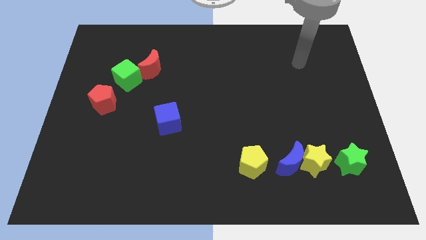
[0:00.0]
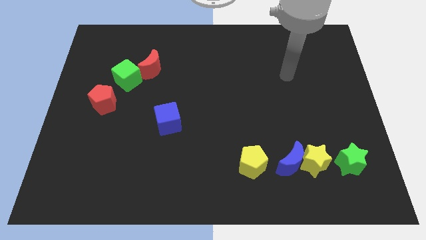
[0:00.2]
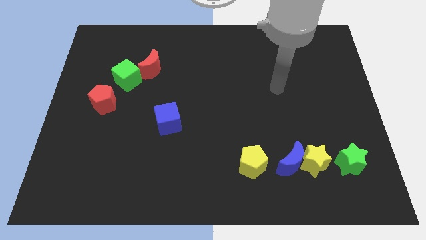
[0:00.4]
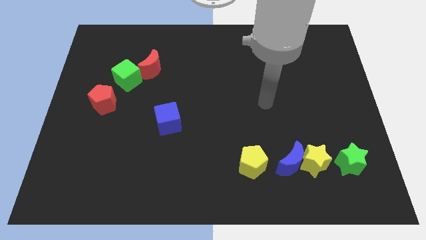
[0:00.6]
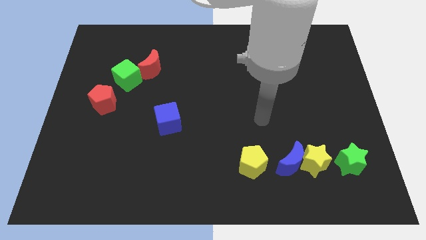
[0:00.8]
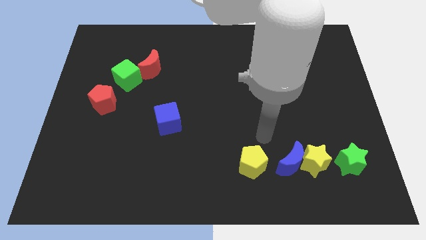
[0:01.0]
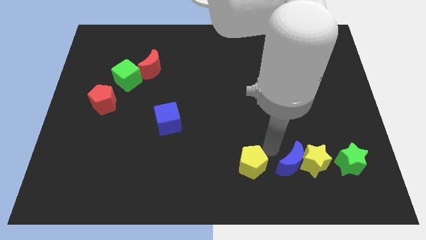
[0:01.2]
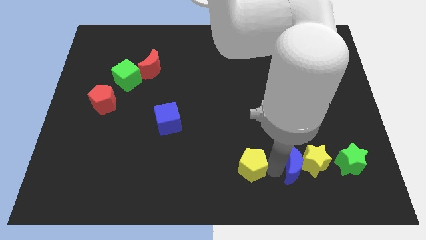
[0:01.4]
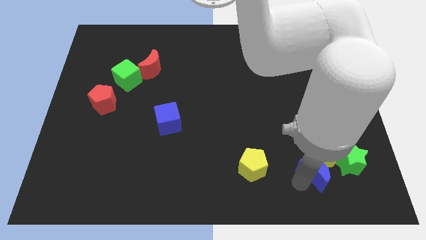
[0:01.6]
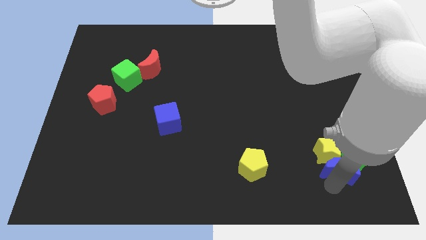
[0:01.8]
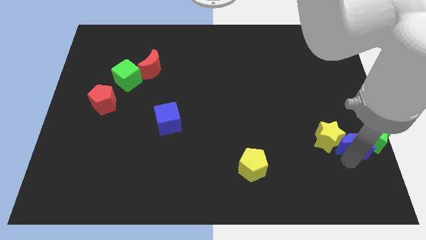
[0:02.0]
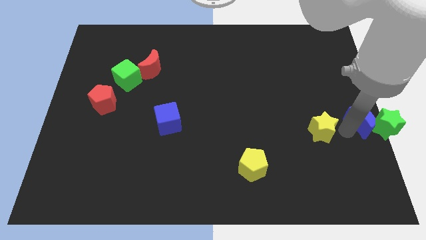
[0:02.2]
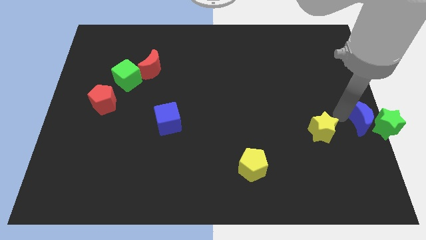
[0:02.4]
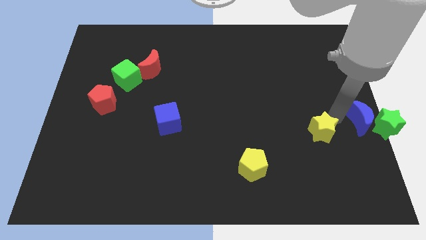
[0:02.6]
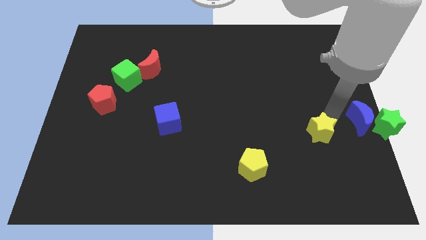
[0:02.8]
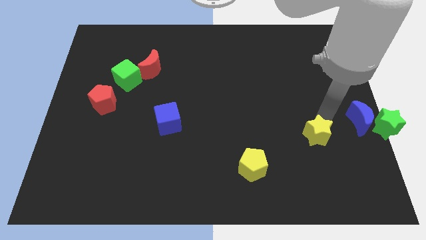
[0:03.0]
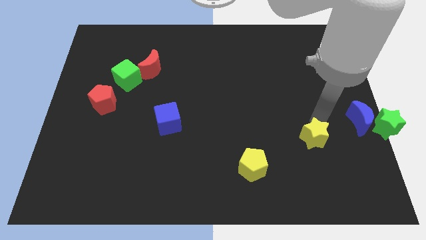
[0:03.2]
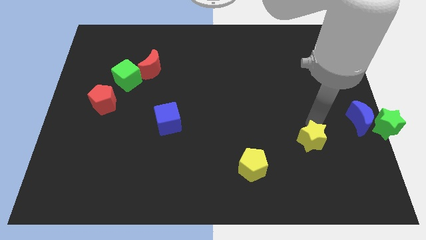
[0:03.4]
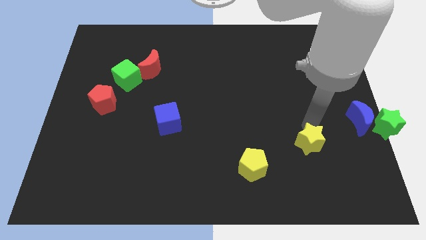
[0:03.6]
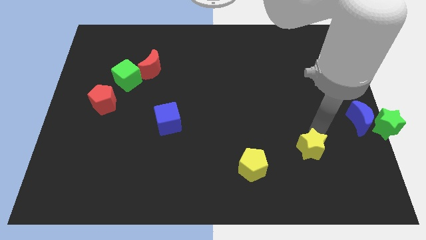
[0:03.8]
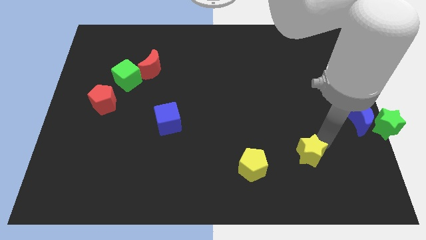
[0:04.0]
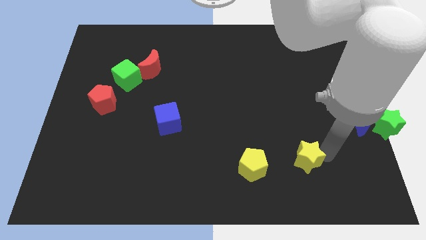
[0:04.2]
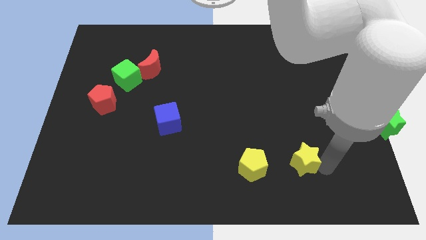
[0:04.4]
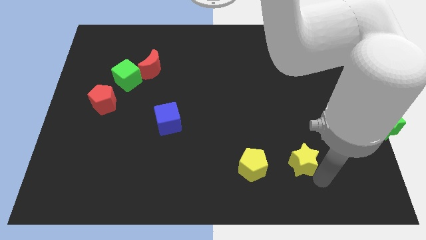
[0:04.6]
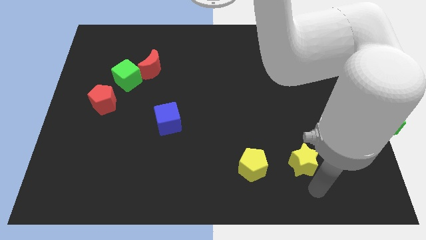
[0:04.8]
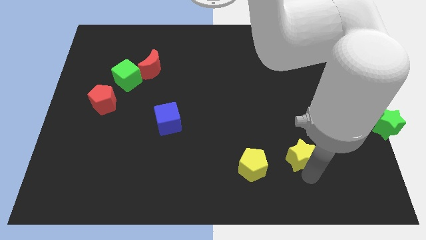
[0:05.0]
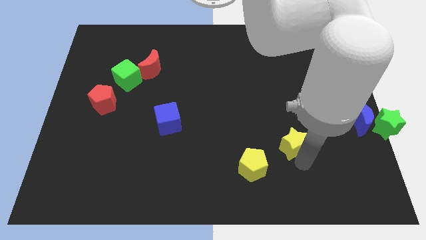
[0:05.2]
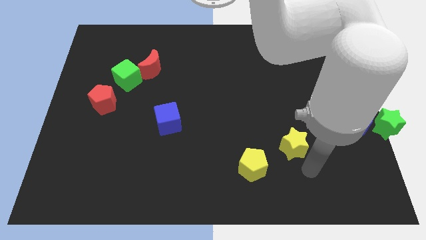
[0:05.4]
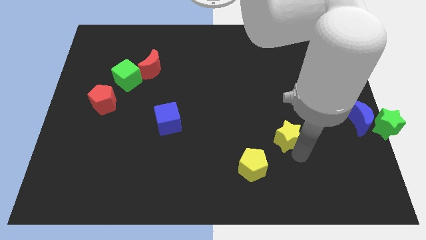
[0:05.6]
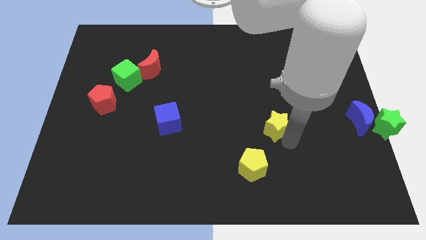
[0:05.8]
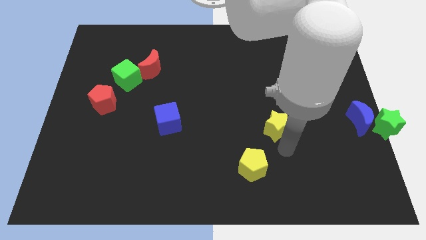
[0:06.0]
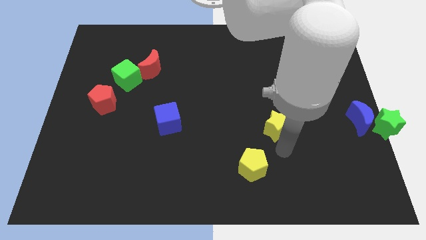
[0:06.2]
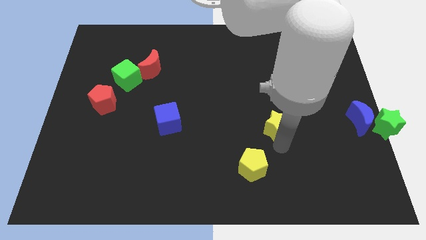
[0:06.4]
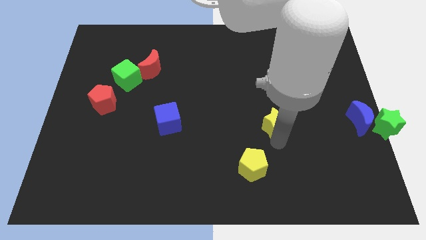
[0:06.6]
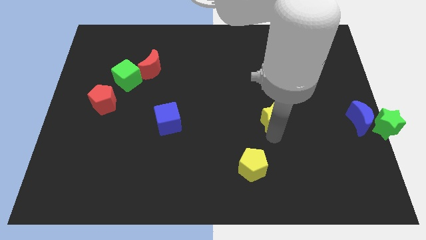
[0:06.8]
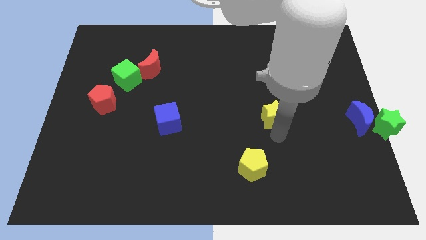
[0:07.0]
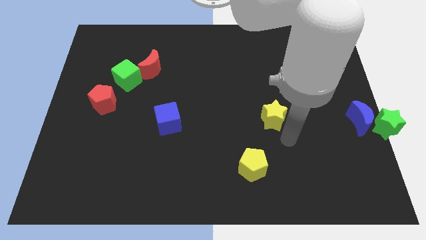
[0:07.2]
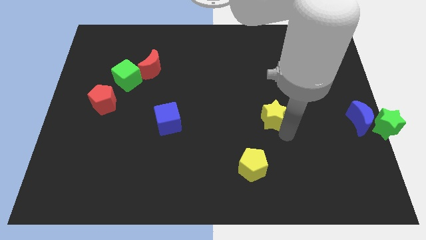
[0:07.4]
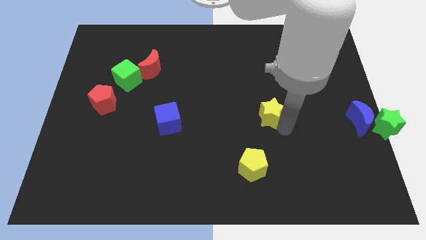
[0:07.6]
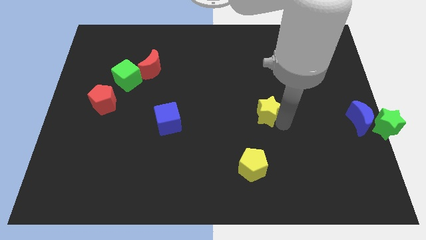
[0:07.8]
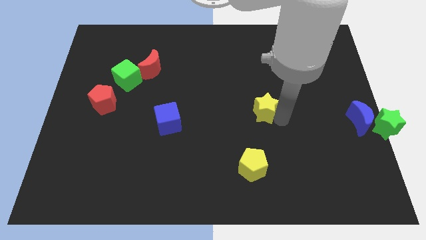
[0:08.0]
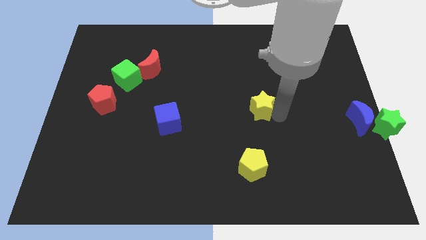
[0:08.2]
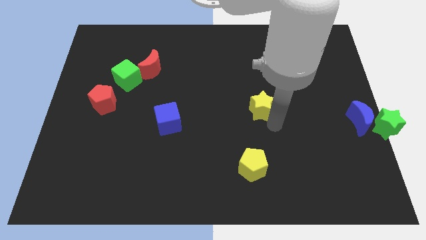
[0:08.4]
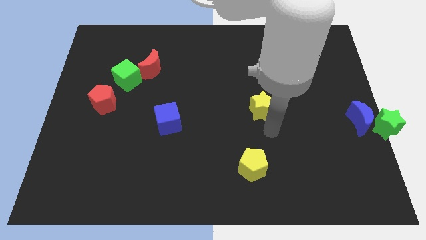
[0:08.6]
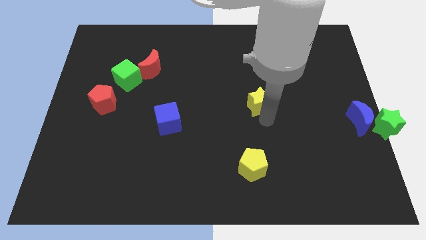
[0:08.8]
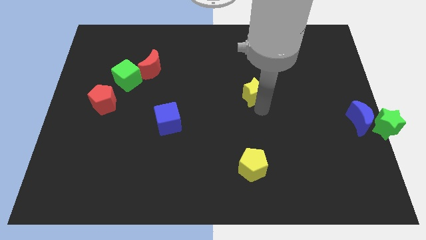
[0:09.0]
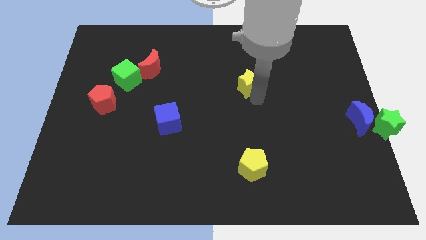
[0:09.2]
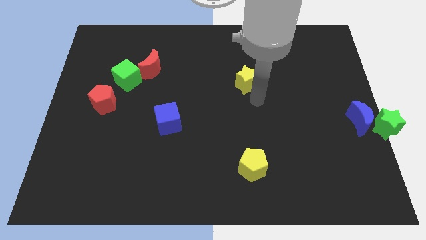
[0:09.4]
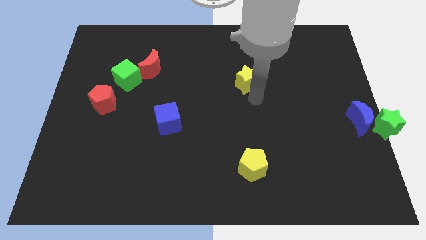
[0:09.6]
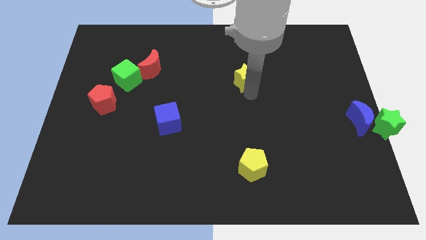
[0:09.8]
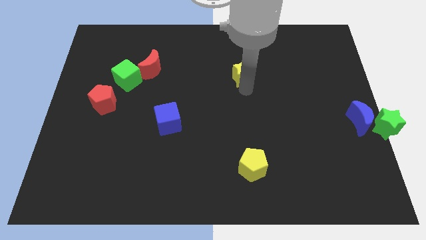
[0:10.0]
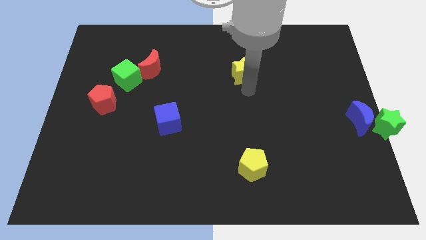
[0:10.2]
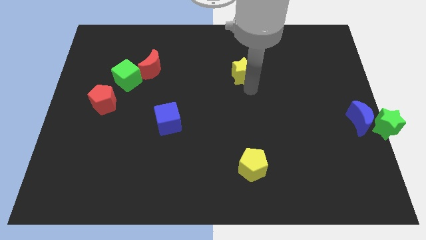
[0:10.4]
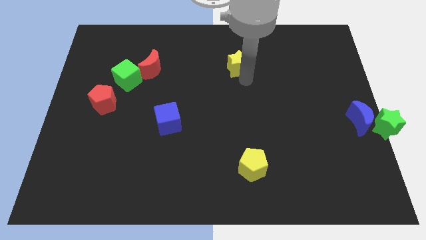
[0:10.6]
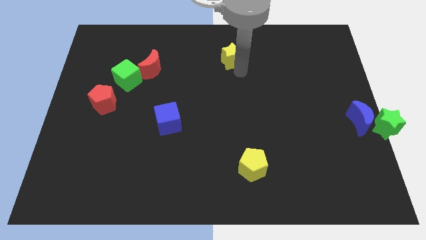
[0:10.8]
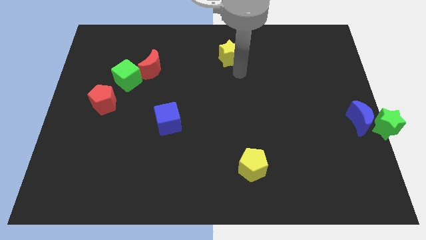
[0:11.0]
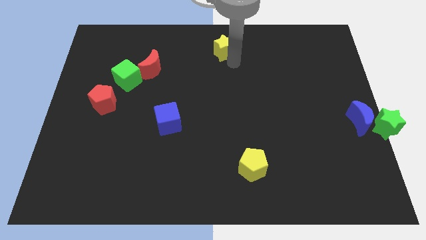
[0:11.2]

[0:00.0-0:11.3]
slide the yellow star to the towards your base
